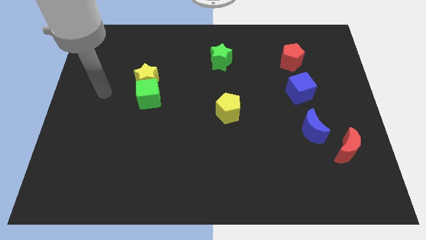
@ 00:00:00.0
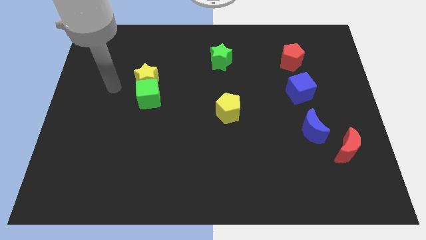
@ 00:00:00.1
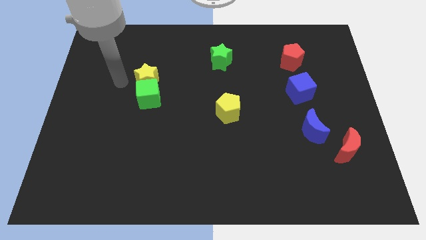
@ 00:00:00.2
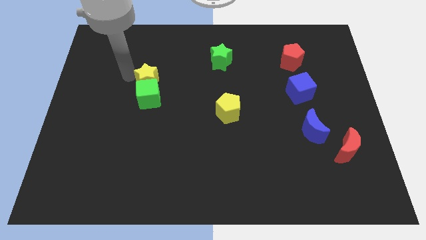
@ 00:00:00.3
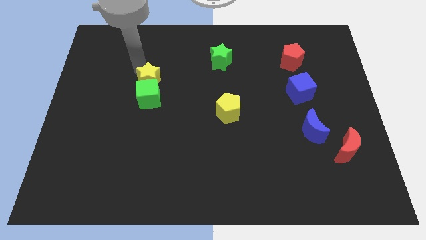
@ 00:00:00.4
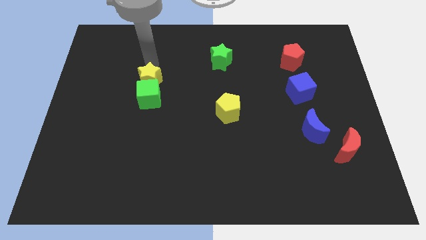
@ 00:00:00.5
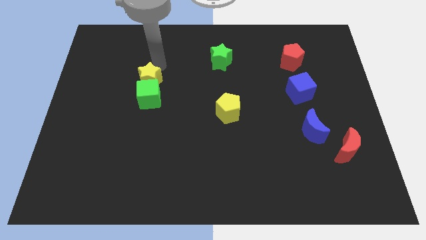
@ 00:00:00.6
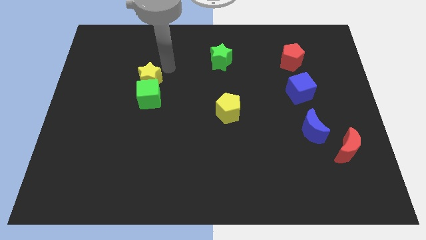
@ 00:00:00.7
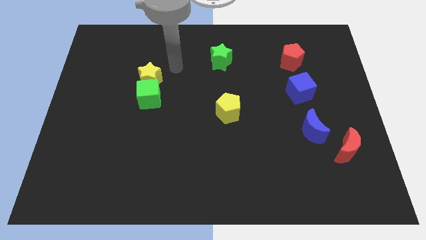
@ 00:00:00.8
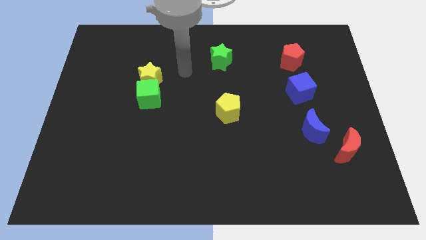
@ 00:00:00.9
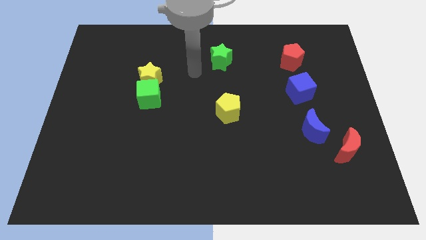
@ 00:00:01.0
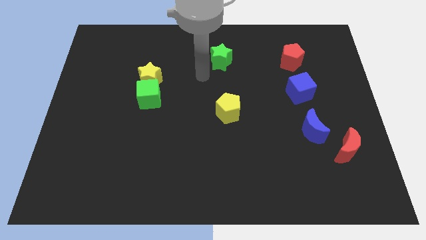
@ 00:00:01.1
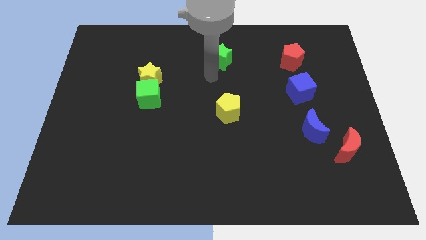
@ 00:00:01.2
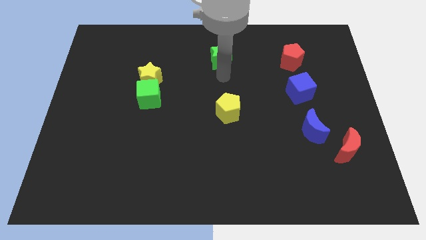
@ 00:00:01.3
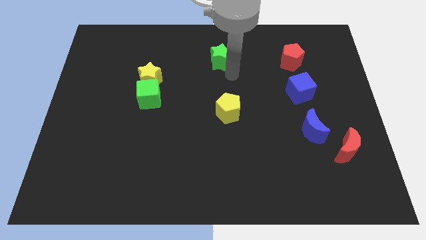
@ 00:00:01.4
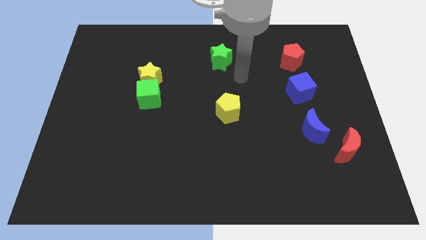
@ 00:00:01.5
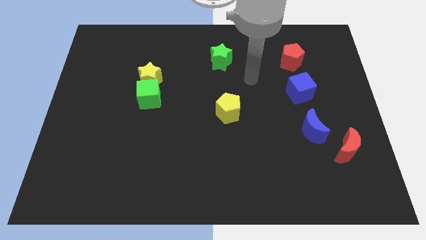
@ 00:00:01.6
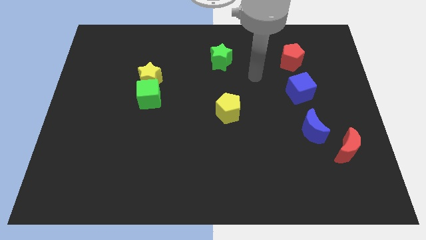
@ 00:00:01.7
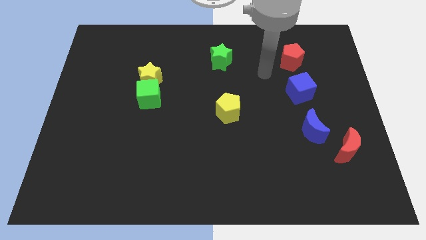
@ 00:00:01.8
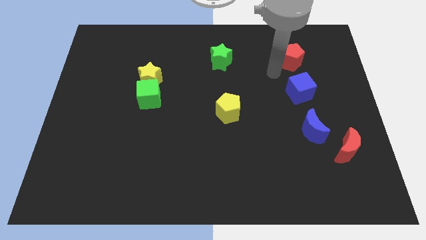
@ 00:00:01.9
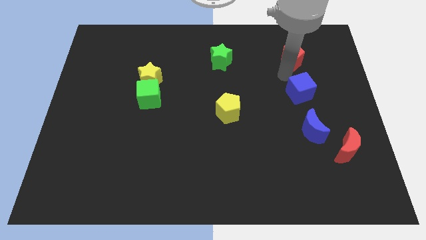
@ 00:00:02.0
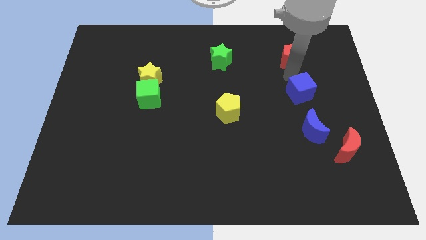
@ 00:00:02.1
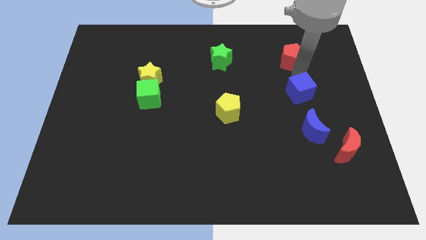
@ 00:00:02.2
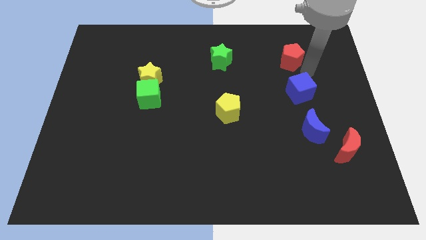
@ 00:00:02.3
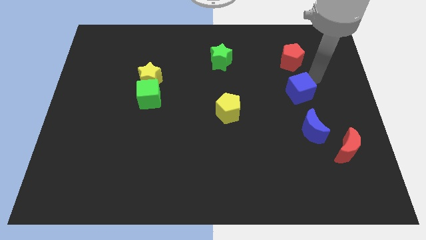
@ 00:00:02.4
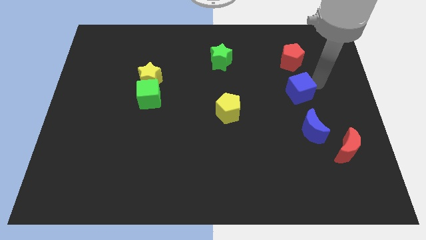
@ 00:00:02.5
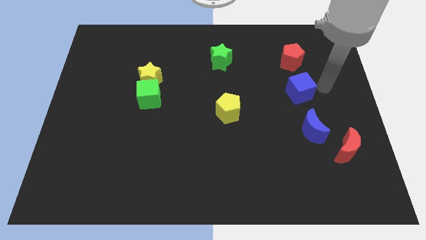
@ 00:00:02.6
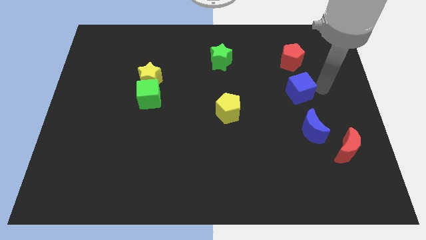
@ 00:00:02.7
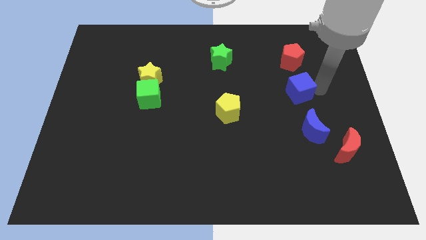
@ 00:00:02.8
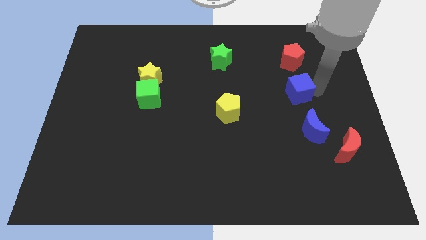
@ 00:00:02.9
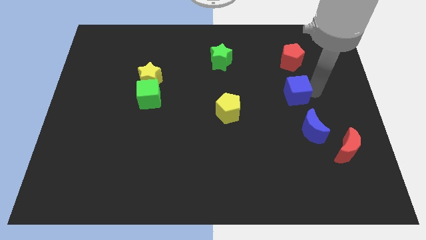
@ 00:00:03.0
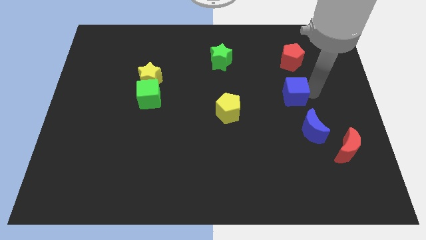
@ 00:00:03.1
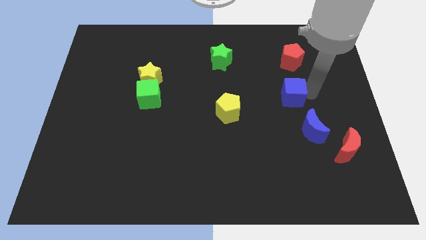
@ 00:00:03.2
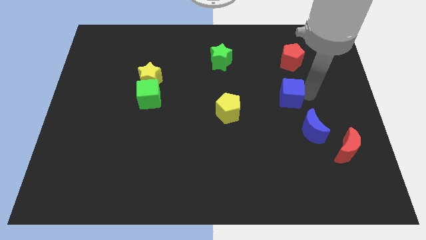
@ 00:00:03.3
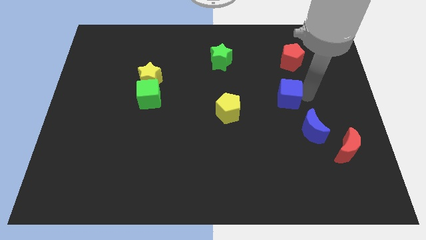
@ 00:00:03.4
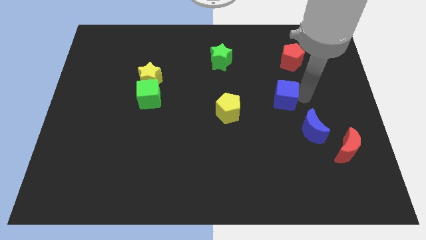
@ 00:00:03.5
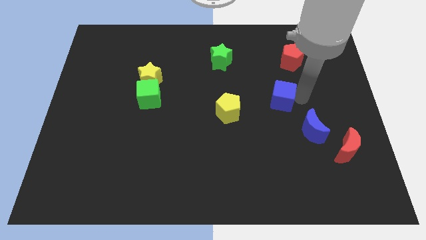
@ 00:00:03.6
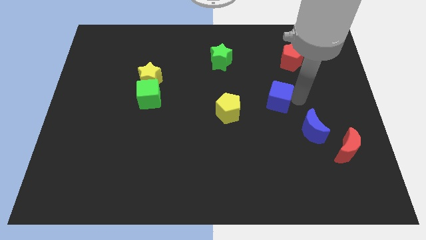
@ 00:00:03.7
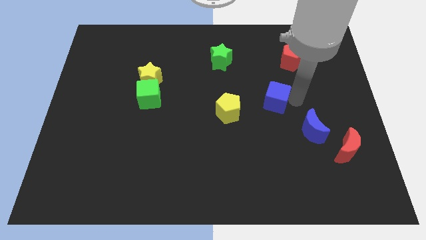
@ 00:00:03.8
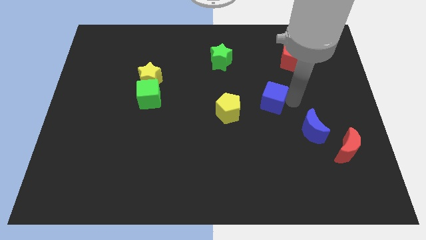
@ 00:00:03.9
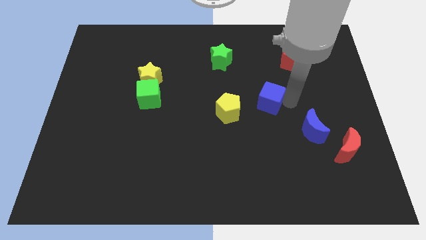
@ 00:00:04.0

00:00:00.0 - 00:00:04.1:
slide the blue cube left slightly

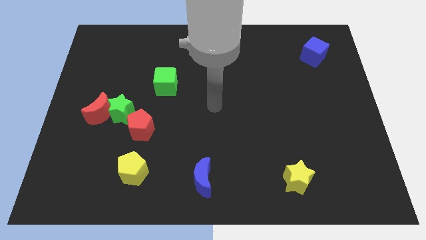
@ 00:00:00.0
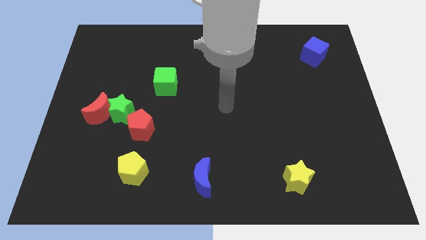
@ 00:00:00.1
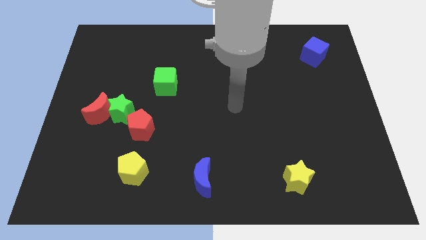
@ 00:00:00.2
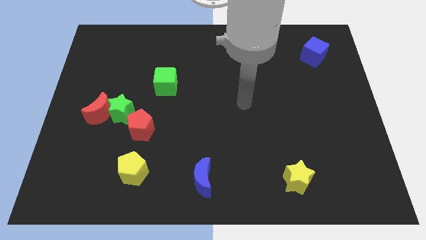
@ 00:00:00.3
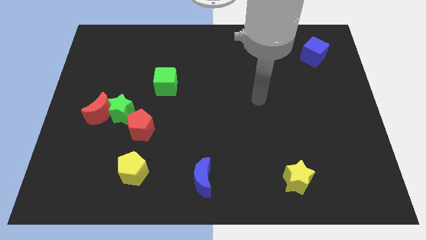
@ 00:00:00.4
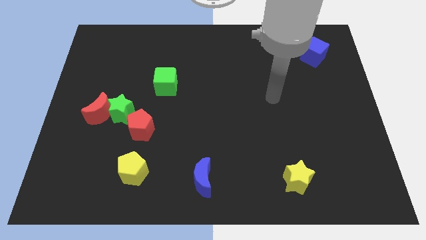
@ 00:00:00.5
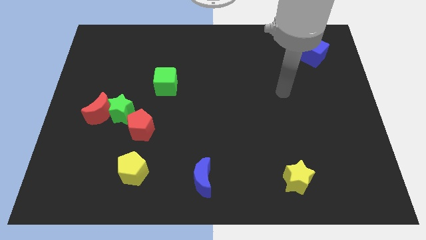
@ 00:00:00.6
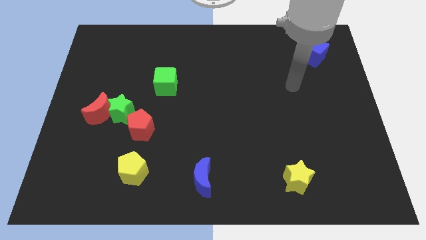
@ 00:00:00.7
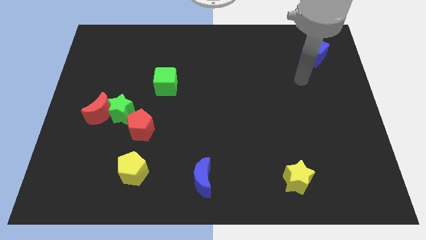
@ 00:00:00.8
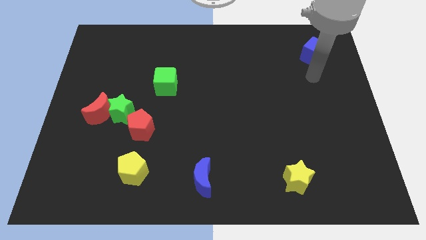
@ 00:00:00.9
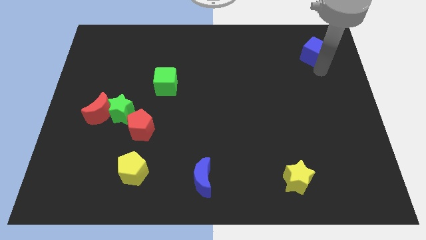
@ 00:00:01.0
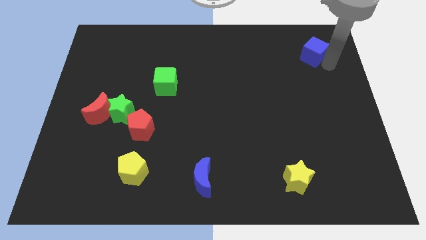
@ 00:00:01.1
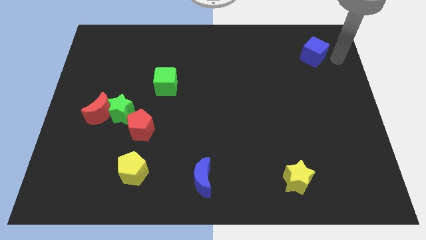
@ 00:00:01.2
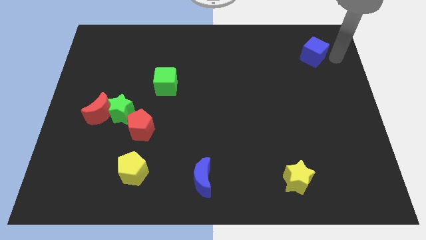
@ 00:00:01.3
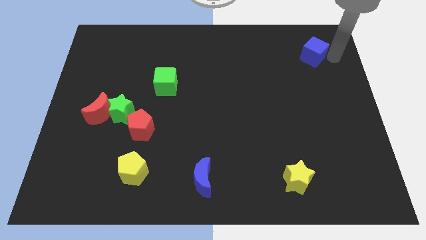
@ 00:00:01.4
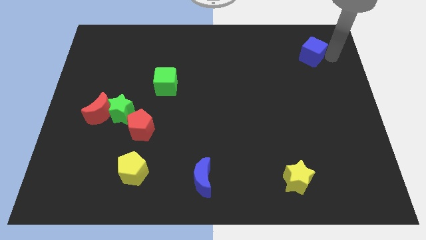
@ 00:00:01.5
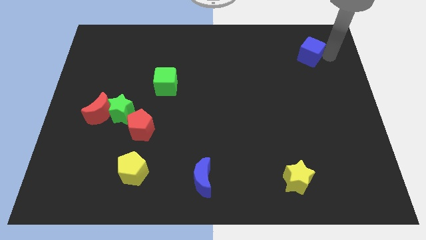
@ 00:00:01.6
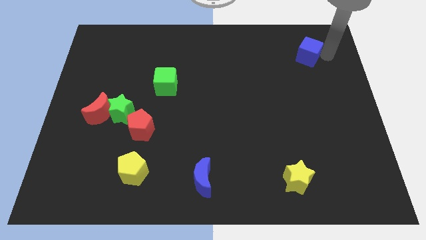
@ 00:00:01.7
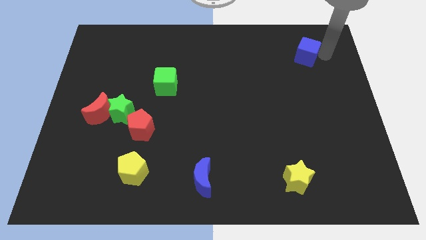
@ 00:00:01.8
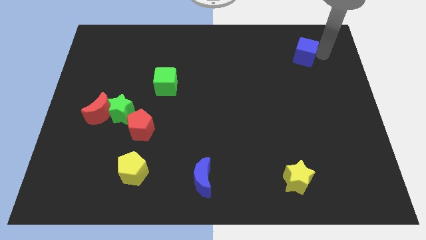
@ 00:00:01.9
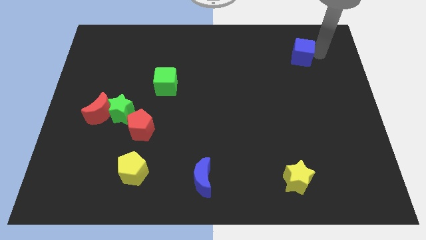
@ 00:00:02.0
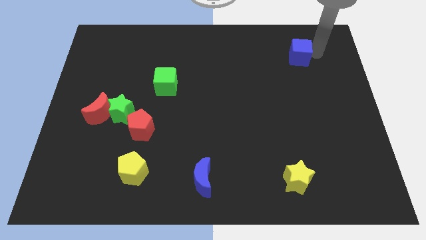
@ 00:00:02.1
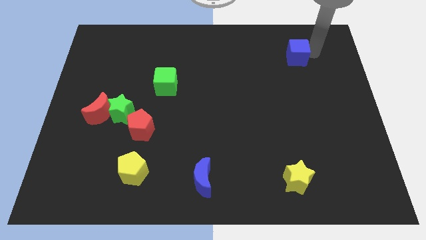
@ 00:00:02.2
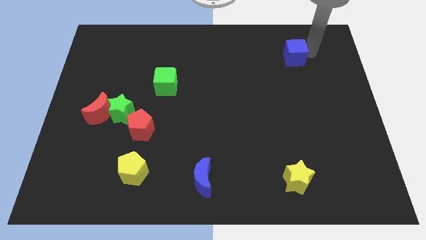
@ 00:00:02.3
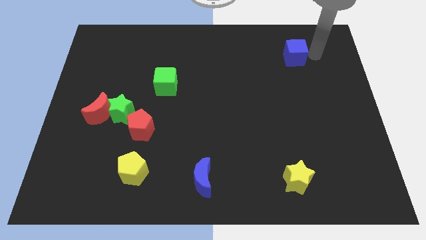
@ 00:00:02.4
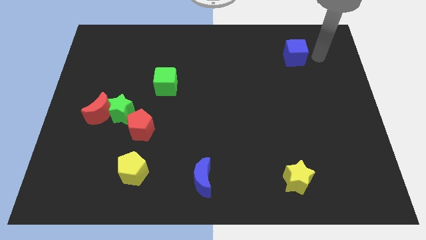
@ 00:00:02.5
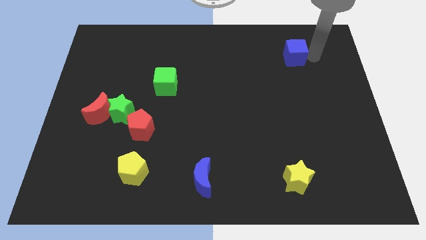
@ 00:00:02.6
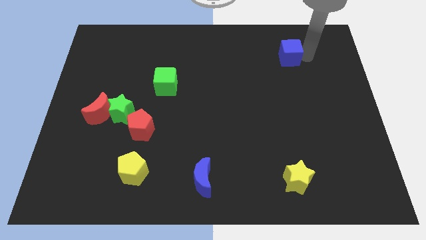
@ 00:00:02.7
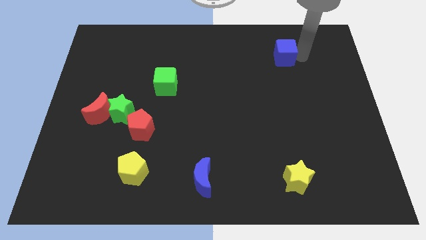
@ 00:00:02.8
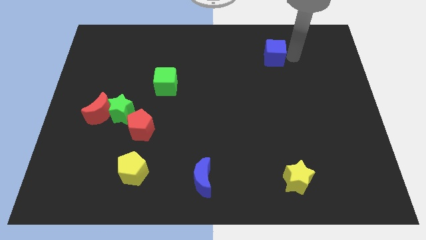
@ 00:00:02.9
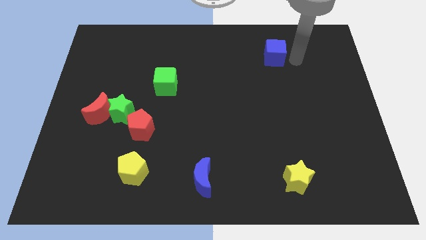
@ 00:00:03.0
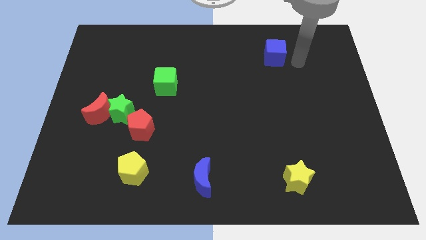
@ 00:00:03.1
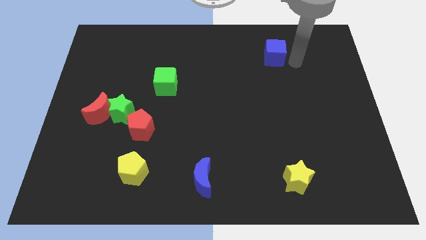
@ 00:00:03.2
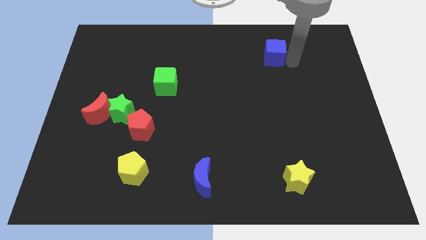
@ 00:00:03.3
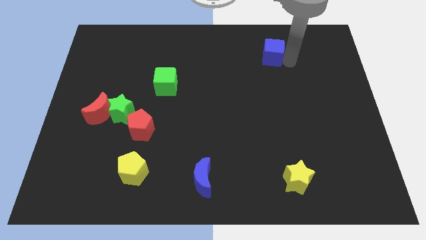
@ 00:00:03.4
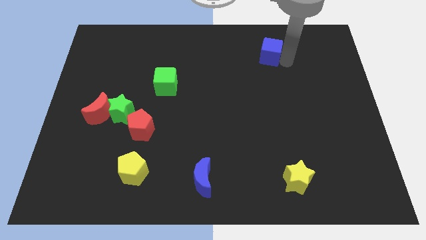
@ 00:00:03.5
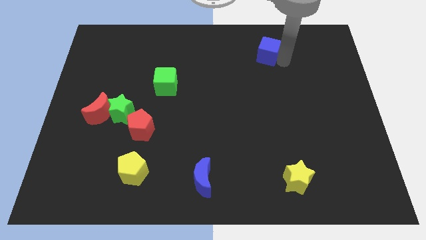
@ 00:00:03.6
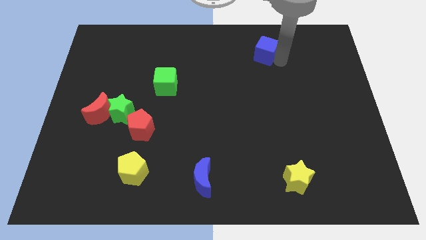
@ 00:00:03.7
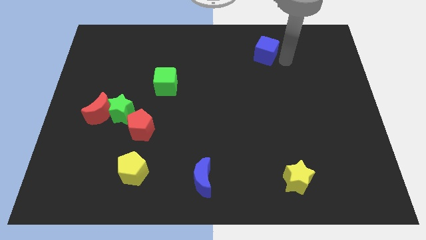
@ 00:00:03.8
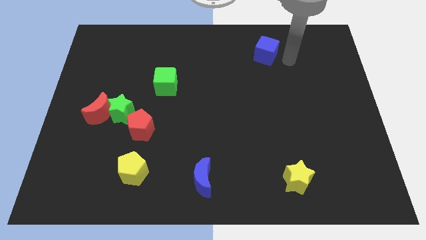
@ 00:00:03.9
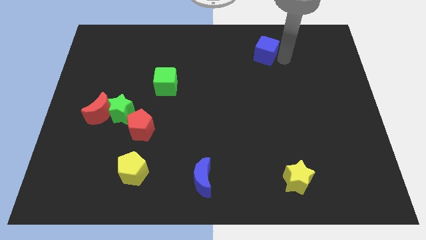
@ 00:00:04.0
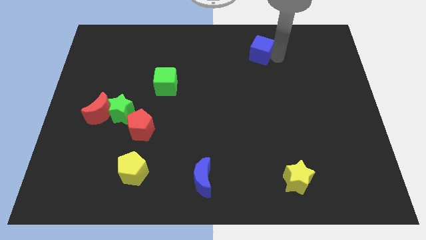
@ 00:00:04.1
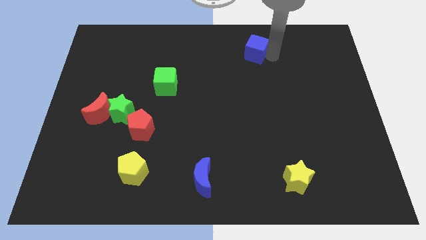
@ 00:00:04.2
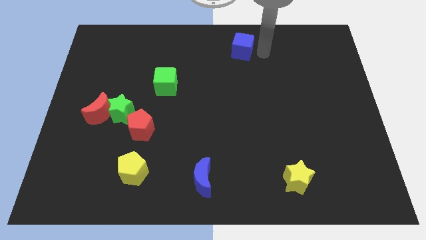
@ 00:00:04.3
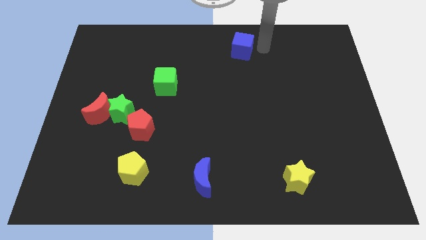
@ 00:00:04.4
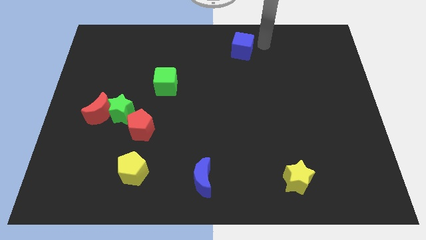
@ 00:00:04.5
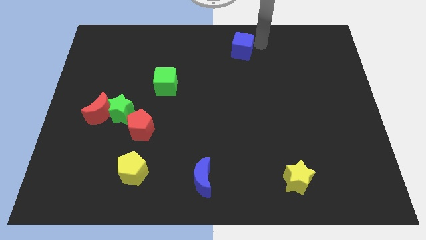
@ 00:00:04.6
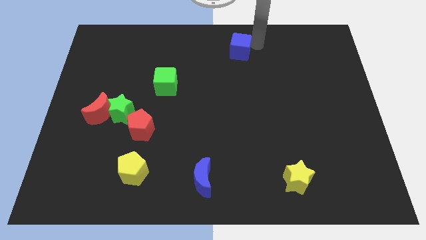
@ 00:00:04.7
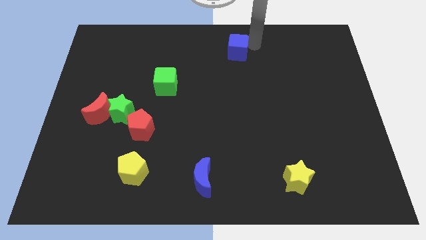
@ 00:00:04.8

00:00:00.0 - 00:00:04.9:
push the blue cube left
